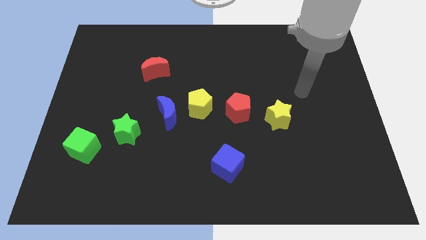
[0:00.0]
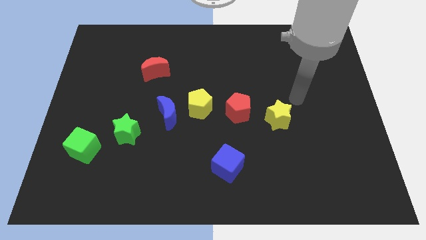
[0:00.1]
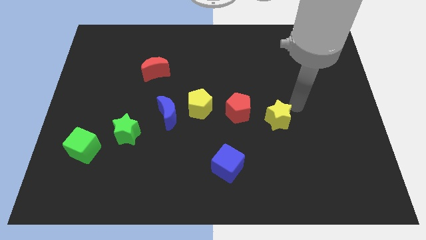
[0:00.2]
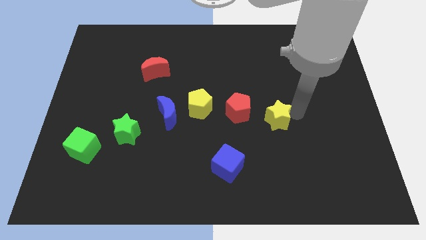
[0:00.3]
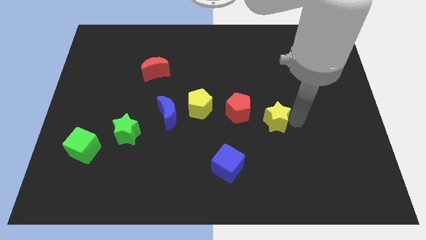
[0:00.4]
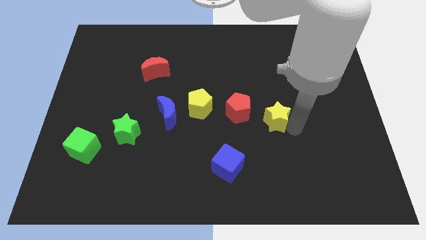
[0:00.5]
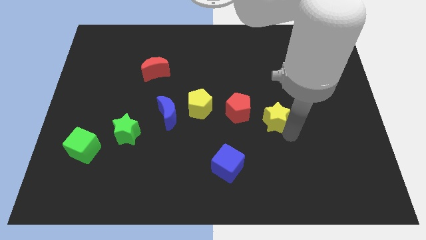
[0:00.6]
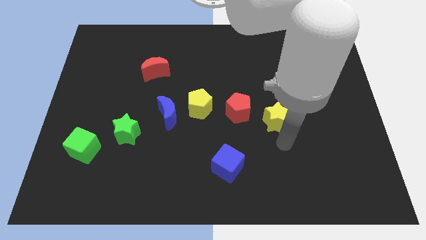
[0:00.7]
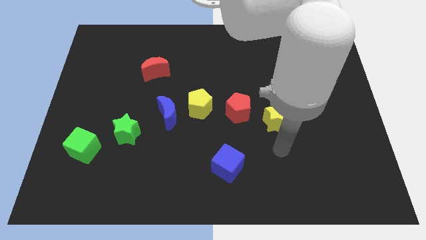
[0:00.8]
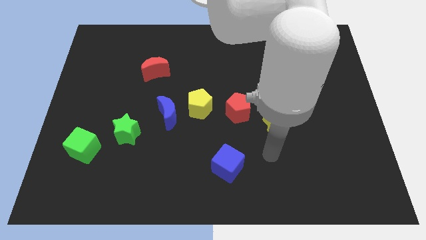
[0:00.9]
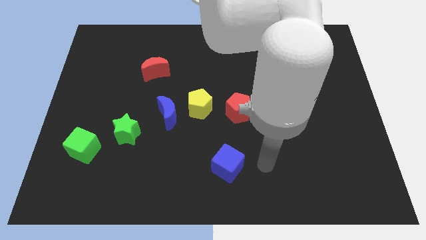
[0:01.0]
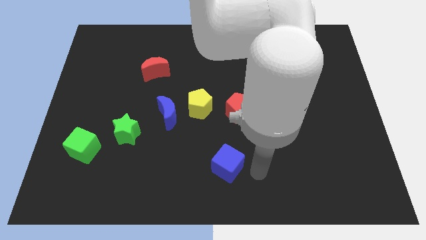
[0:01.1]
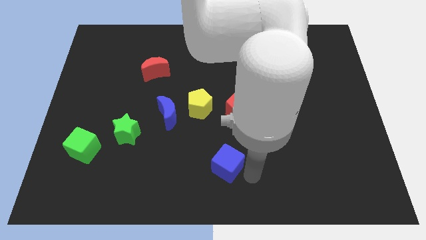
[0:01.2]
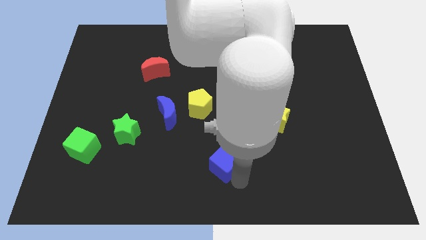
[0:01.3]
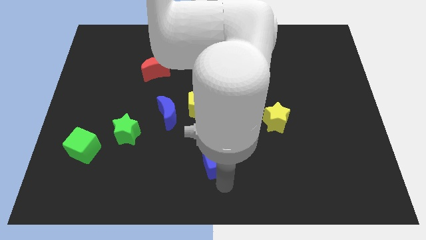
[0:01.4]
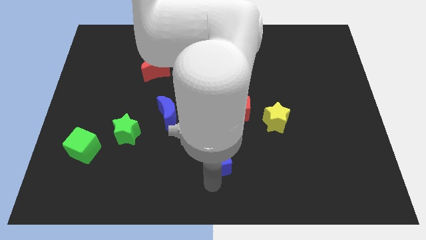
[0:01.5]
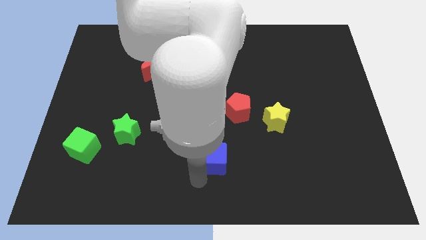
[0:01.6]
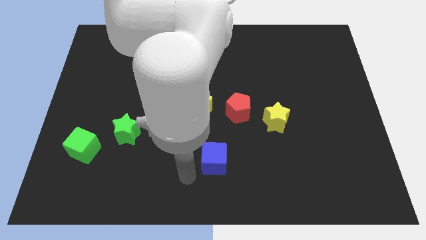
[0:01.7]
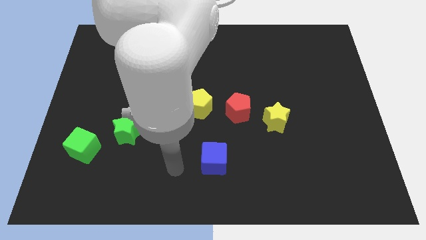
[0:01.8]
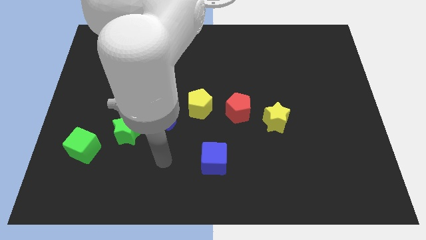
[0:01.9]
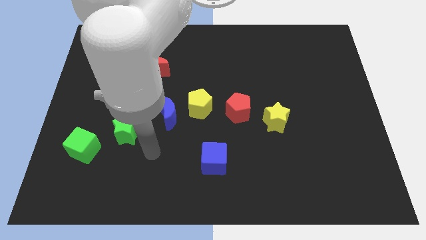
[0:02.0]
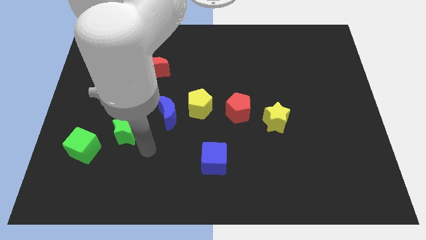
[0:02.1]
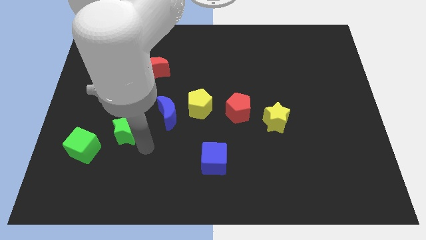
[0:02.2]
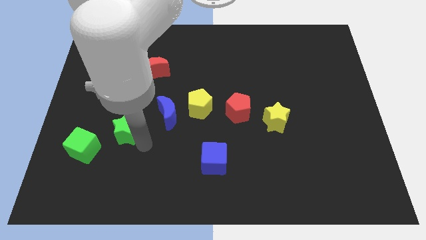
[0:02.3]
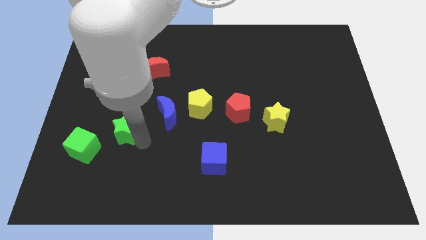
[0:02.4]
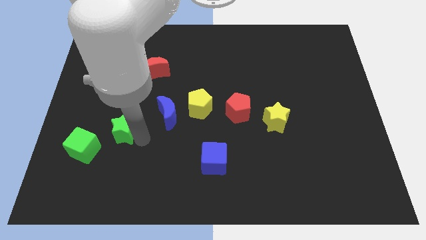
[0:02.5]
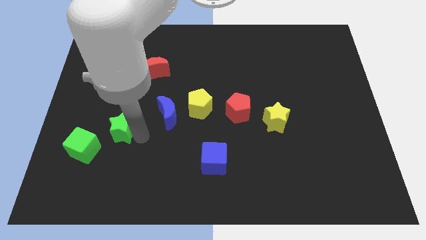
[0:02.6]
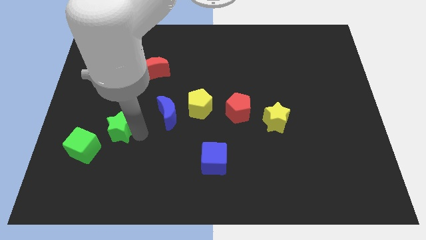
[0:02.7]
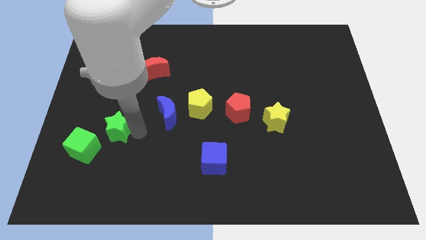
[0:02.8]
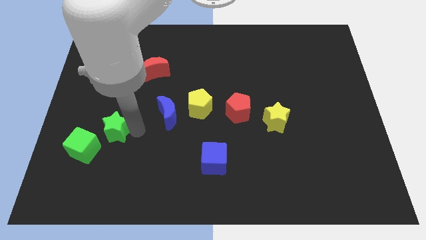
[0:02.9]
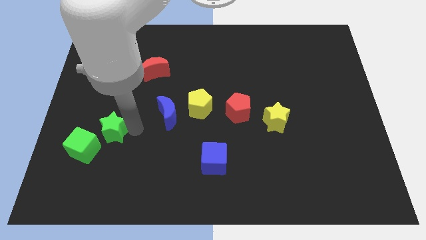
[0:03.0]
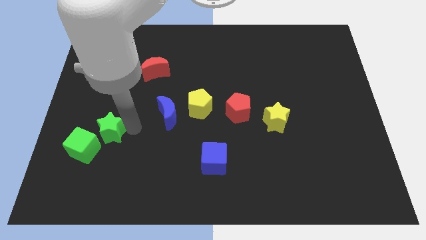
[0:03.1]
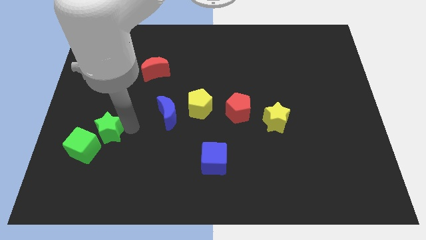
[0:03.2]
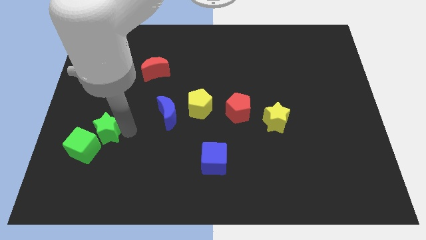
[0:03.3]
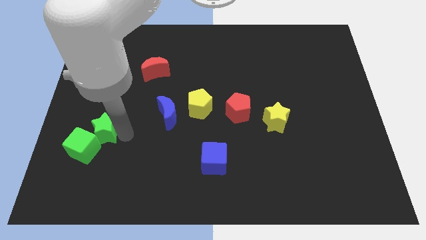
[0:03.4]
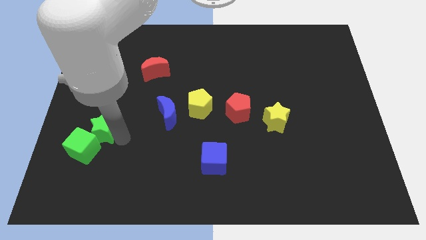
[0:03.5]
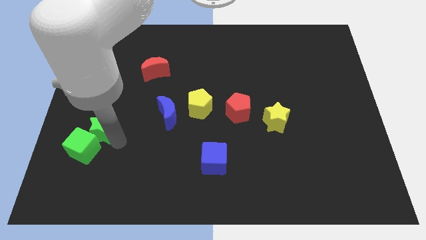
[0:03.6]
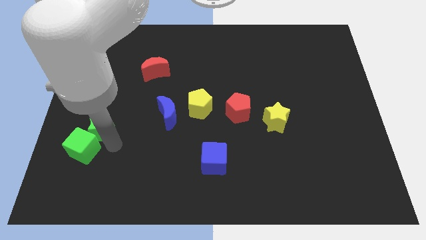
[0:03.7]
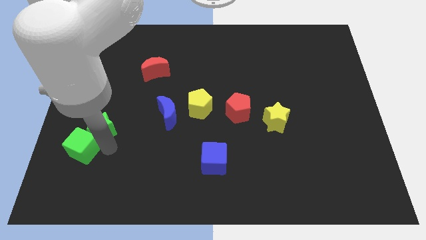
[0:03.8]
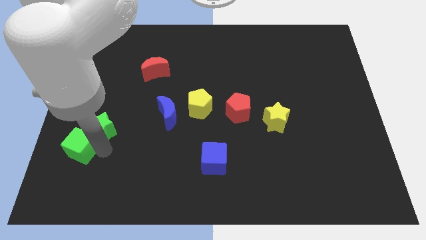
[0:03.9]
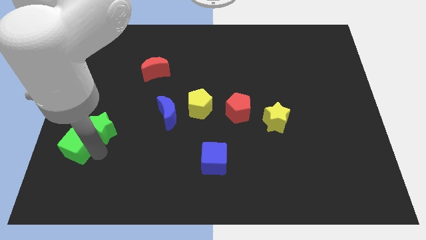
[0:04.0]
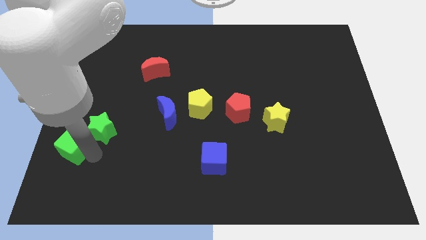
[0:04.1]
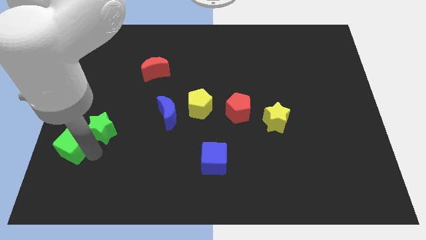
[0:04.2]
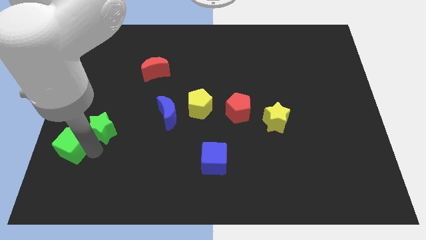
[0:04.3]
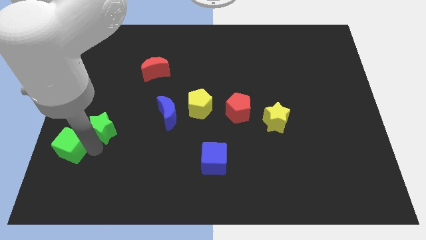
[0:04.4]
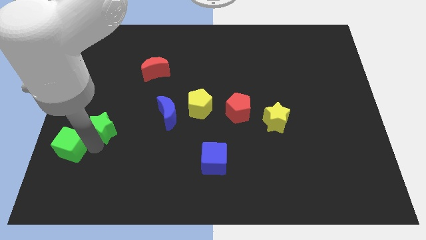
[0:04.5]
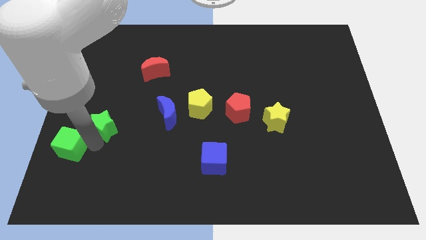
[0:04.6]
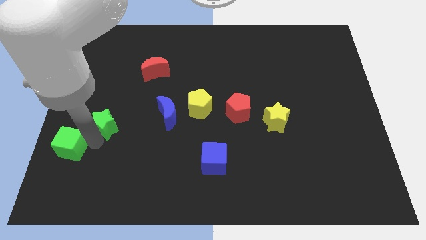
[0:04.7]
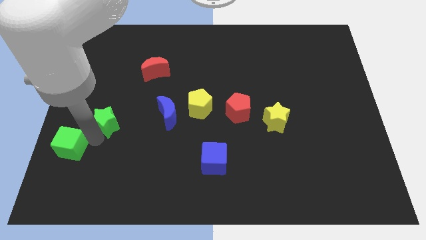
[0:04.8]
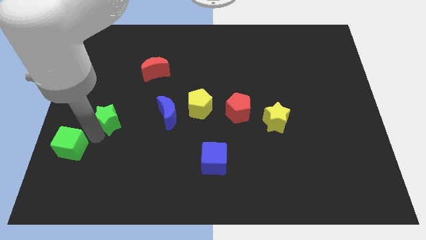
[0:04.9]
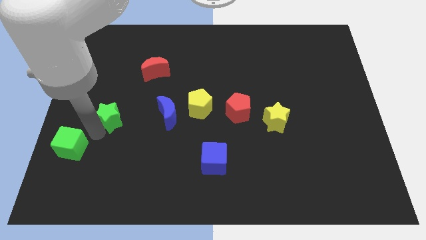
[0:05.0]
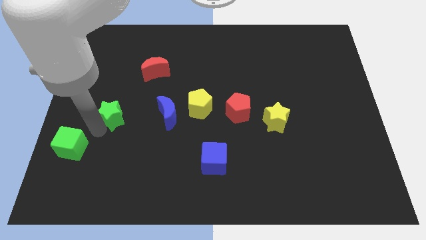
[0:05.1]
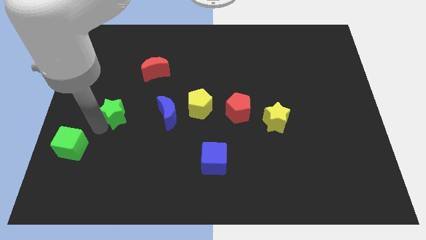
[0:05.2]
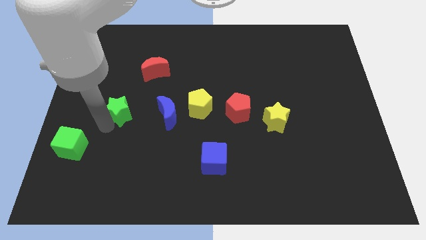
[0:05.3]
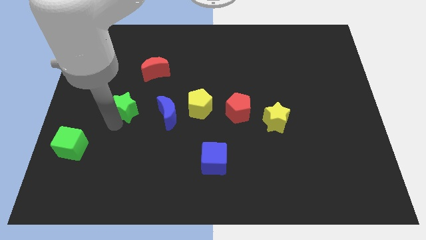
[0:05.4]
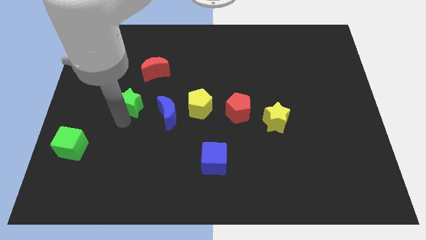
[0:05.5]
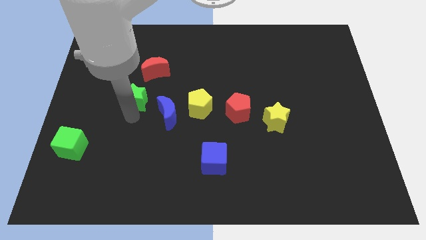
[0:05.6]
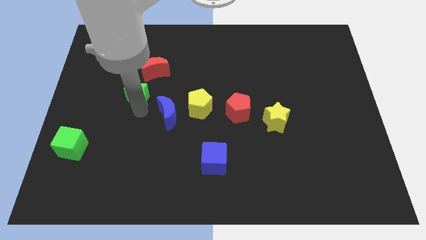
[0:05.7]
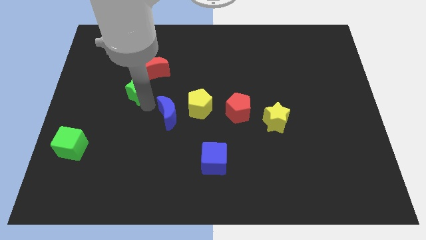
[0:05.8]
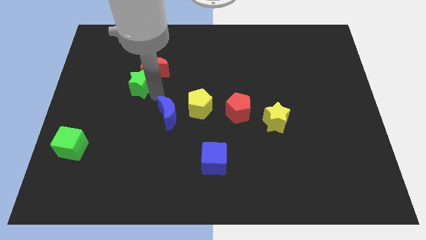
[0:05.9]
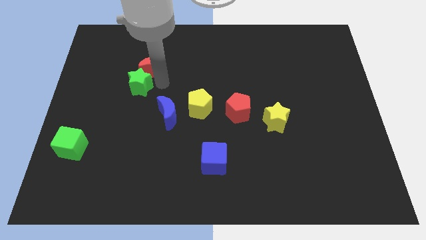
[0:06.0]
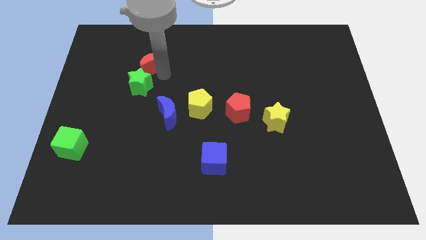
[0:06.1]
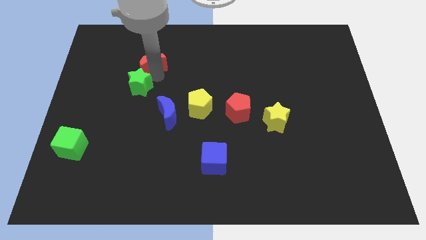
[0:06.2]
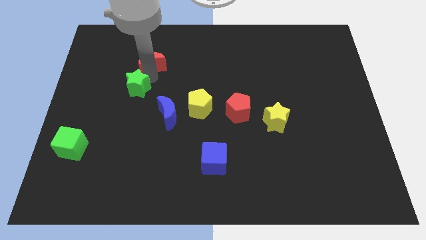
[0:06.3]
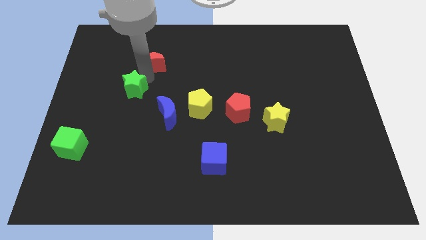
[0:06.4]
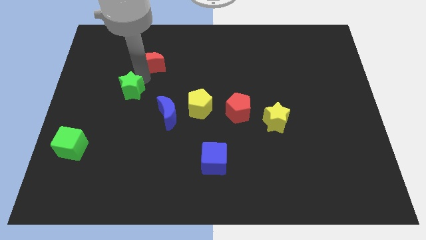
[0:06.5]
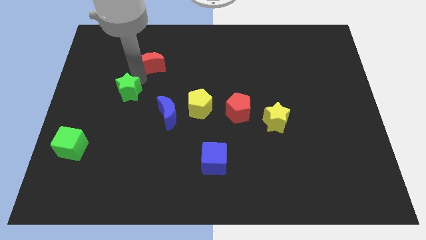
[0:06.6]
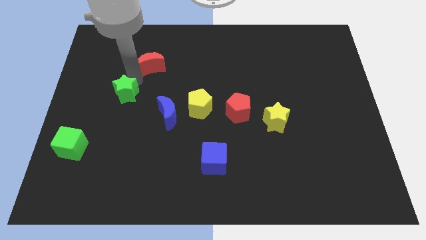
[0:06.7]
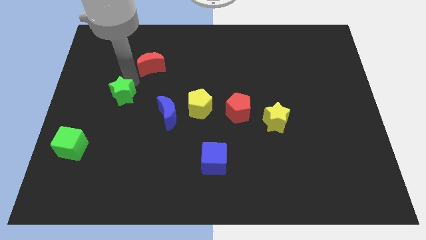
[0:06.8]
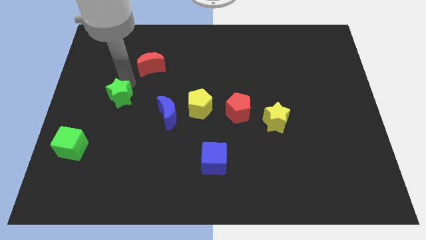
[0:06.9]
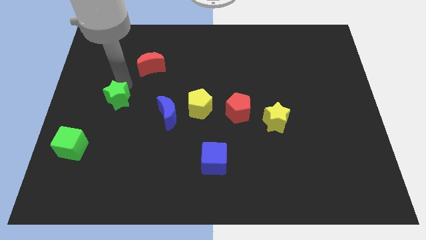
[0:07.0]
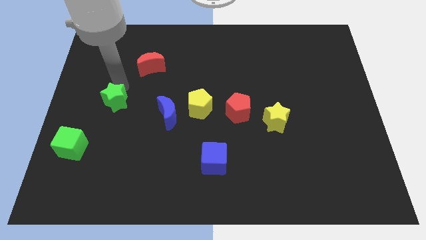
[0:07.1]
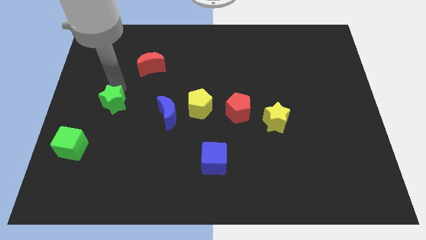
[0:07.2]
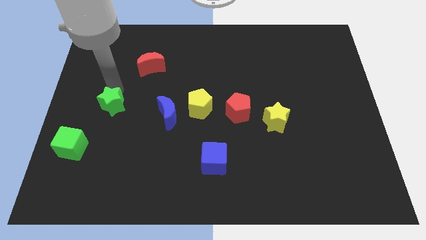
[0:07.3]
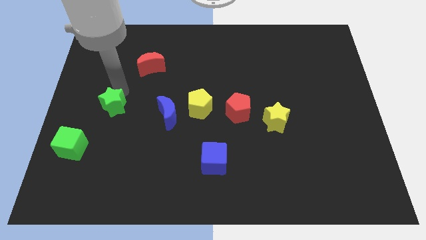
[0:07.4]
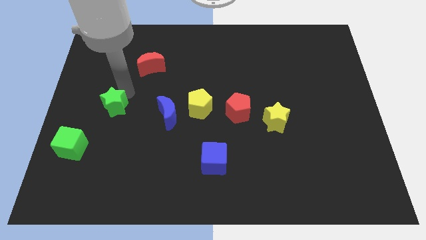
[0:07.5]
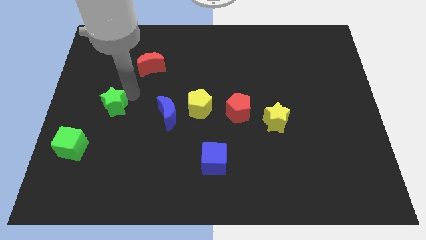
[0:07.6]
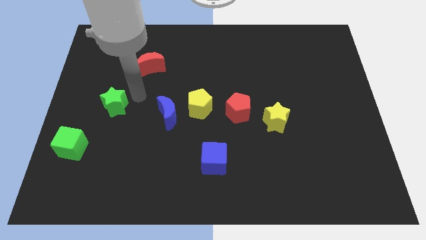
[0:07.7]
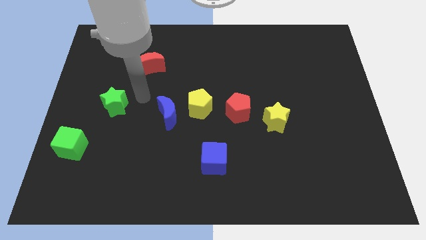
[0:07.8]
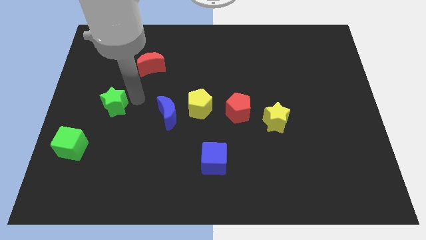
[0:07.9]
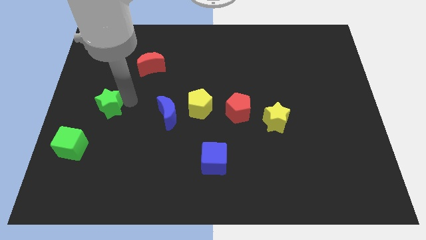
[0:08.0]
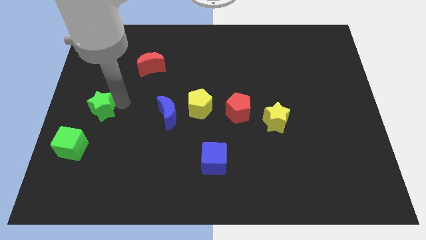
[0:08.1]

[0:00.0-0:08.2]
push the green star to the center left
